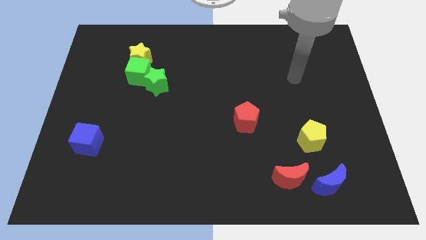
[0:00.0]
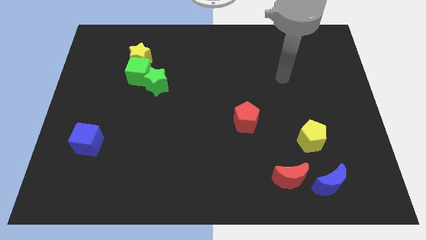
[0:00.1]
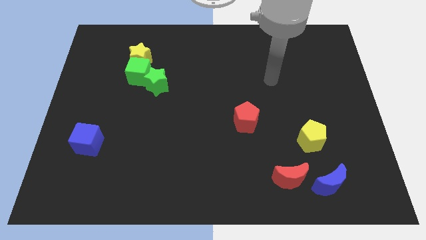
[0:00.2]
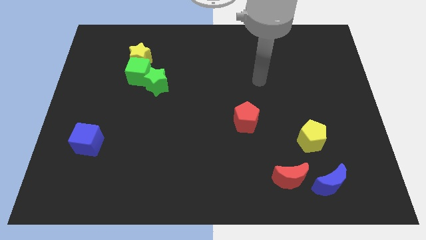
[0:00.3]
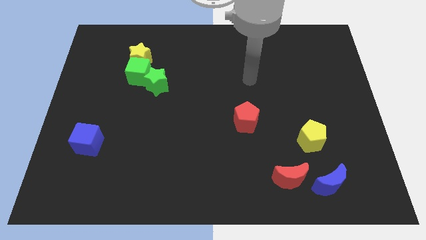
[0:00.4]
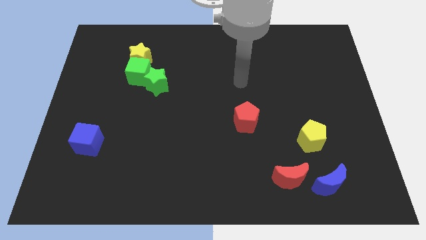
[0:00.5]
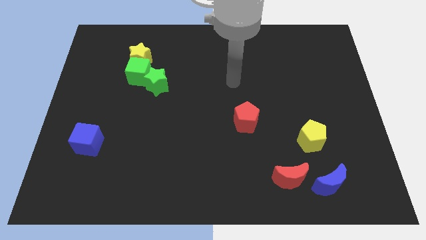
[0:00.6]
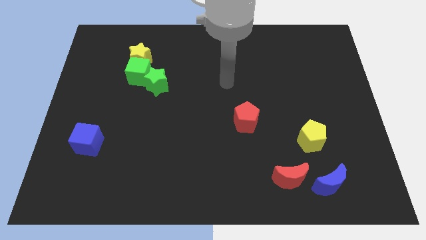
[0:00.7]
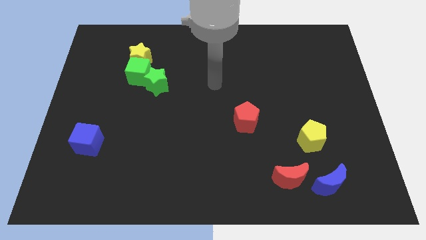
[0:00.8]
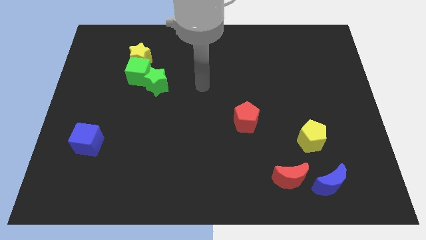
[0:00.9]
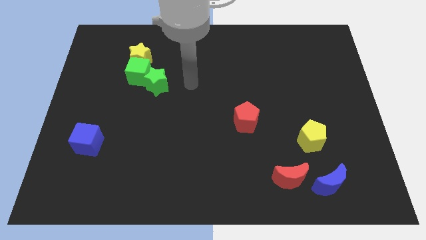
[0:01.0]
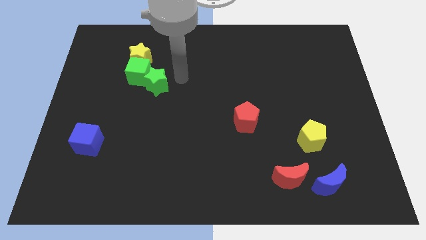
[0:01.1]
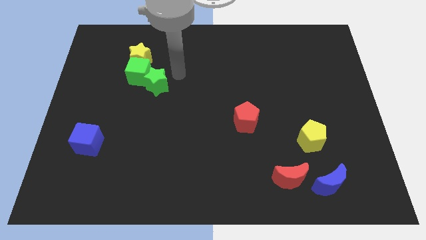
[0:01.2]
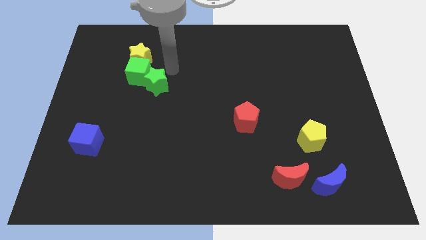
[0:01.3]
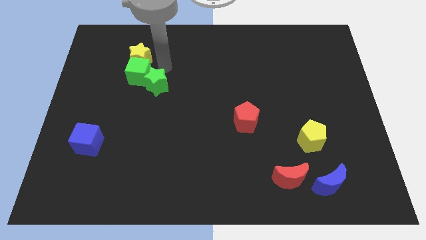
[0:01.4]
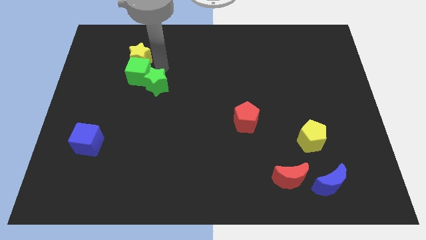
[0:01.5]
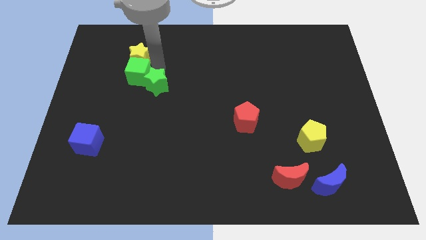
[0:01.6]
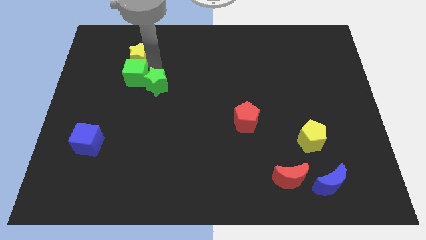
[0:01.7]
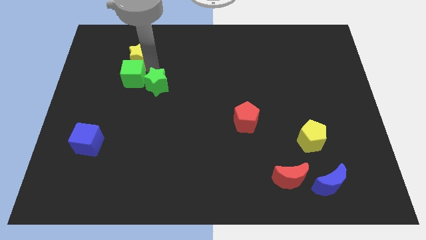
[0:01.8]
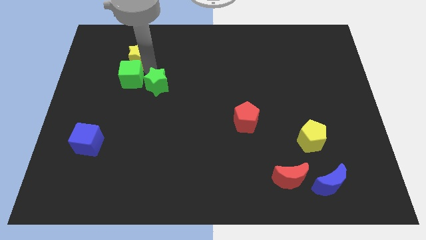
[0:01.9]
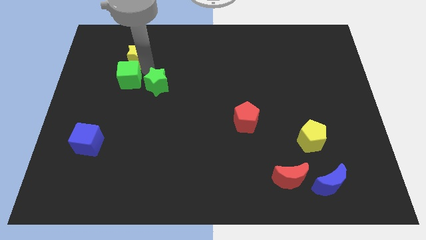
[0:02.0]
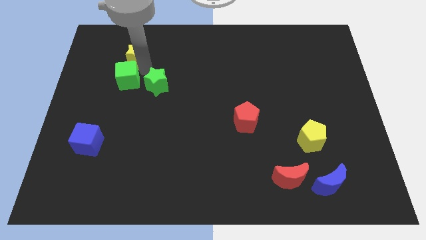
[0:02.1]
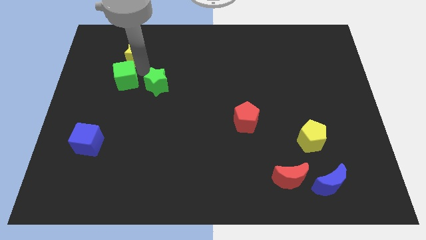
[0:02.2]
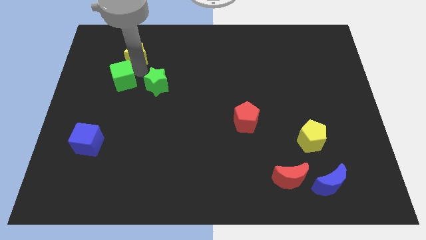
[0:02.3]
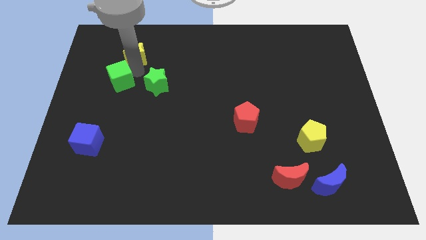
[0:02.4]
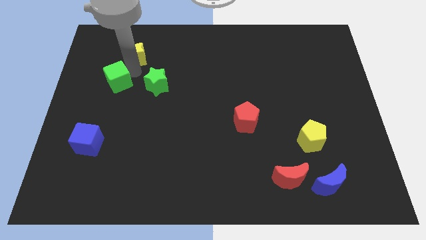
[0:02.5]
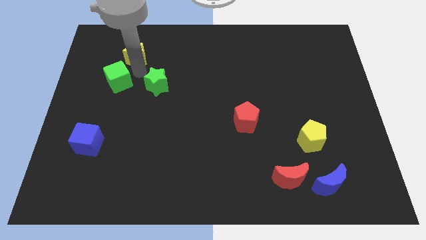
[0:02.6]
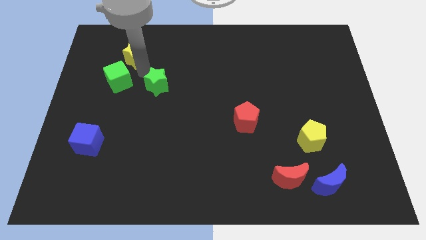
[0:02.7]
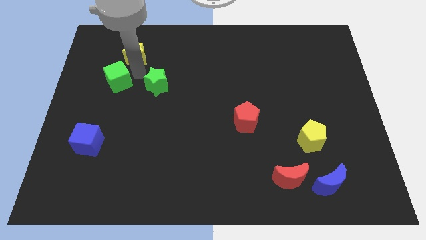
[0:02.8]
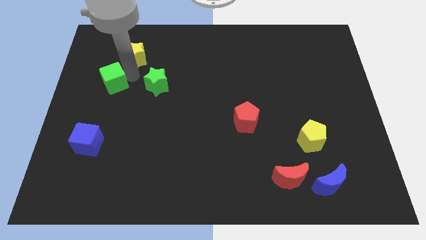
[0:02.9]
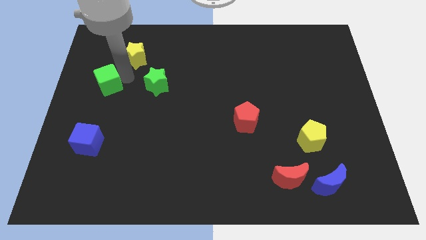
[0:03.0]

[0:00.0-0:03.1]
separate the green cube from the yellow star and green star

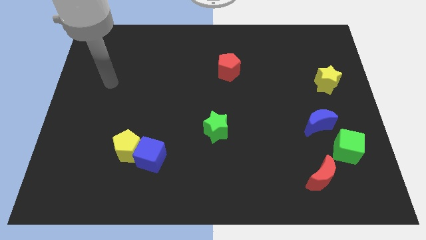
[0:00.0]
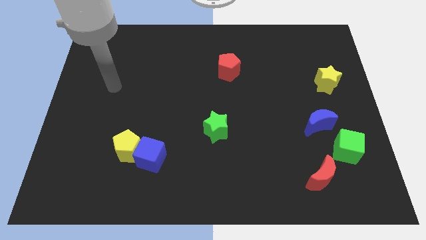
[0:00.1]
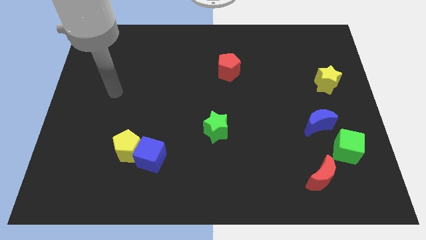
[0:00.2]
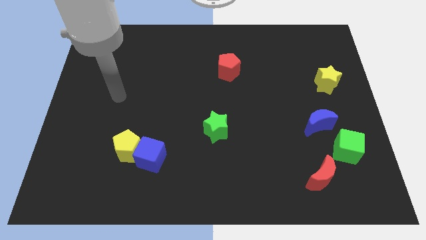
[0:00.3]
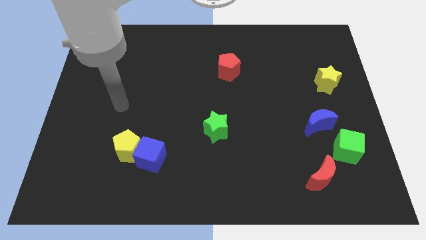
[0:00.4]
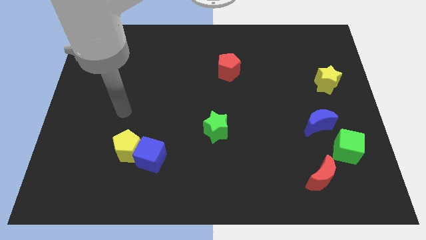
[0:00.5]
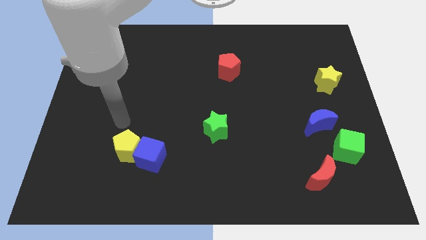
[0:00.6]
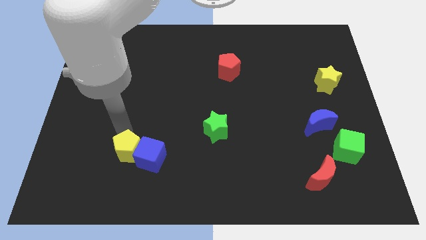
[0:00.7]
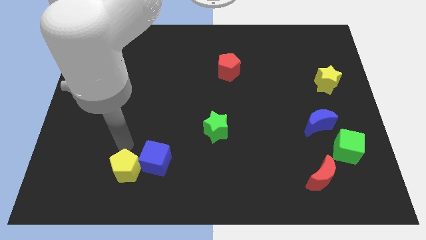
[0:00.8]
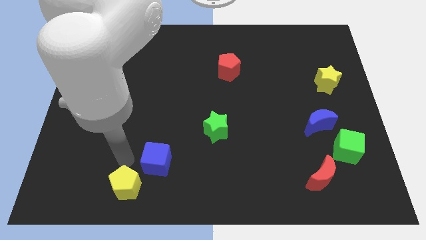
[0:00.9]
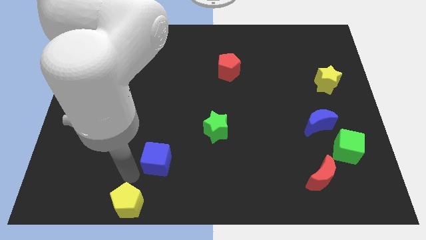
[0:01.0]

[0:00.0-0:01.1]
move the blue cube away from the yellow pentagon

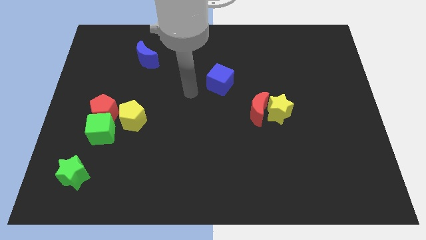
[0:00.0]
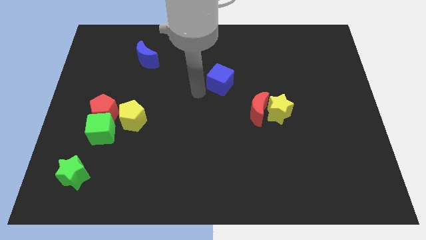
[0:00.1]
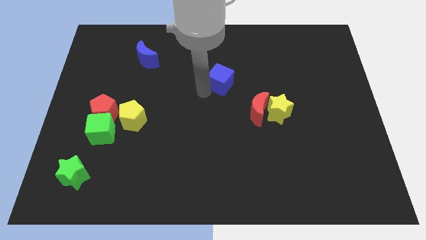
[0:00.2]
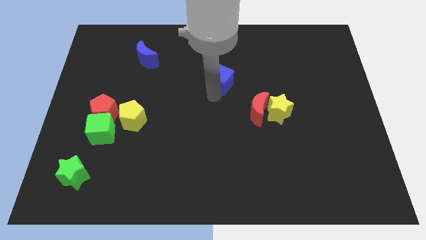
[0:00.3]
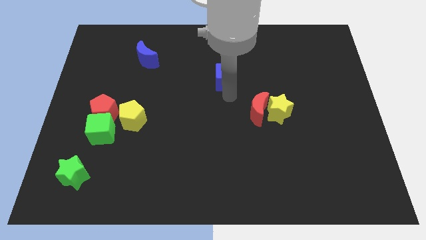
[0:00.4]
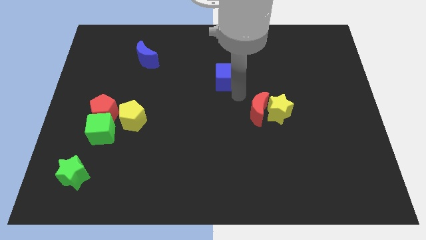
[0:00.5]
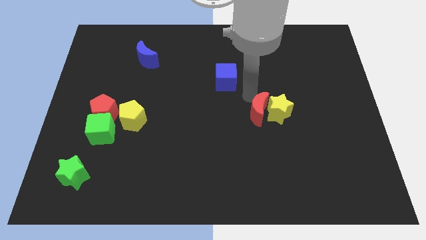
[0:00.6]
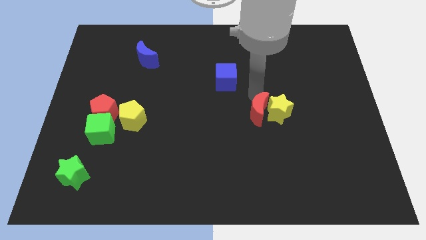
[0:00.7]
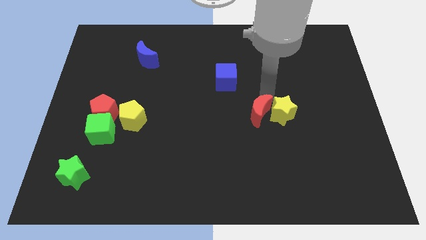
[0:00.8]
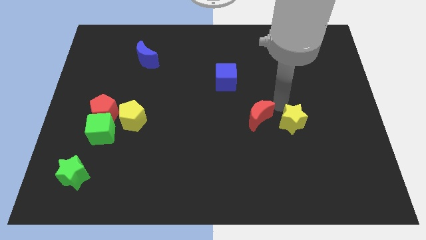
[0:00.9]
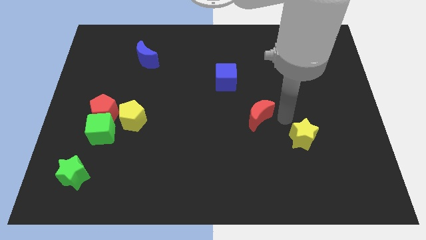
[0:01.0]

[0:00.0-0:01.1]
pull the red moon apart from the yellow star

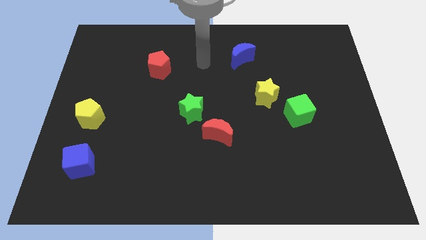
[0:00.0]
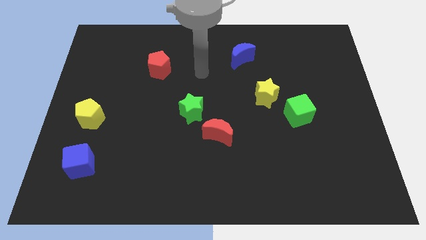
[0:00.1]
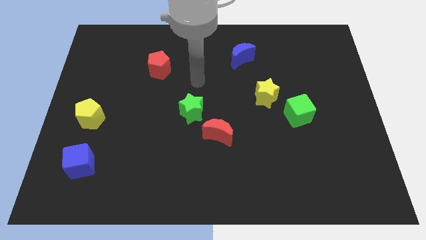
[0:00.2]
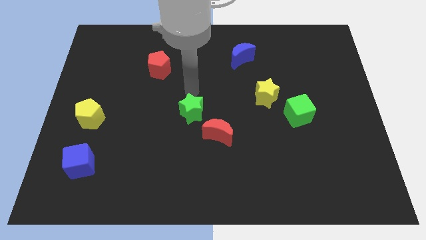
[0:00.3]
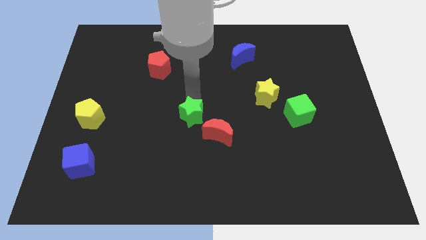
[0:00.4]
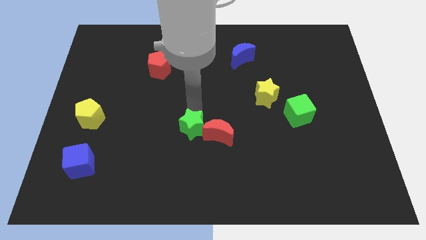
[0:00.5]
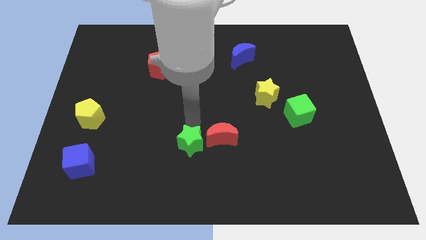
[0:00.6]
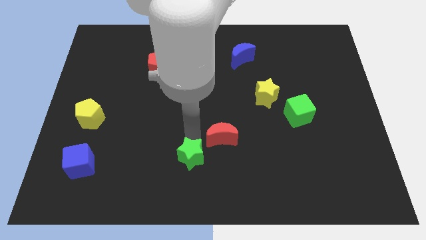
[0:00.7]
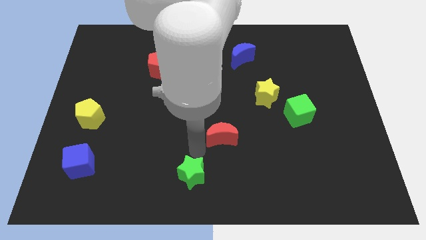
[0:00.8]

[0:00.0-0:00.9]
pull the red moon apart from the green star

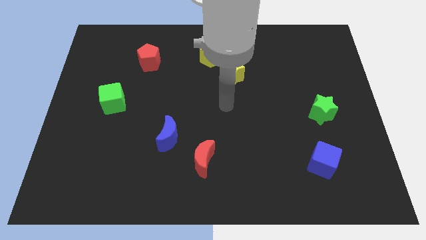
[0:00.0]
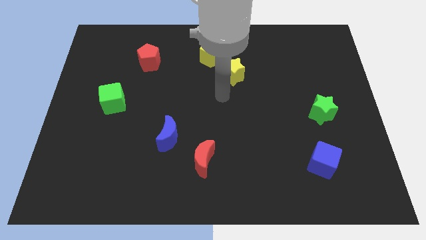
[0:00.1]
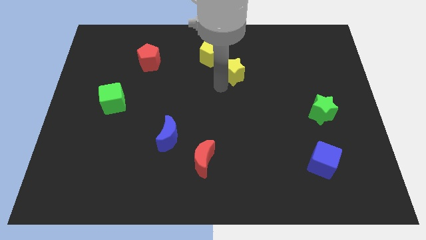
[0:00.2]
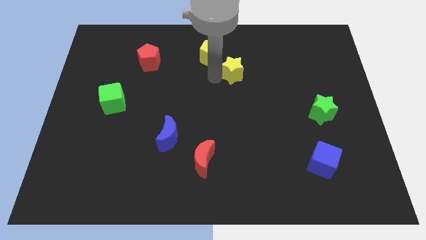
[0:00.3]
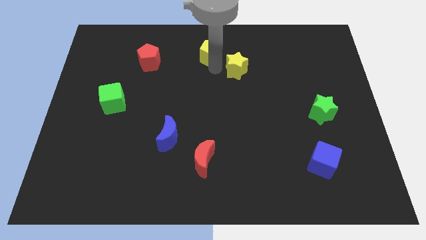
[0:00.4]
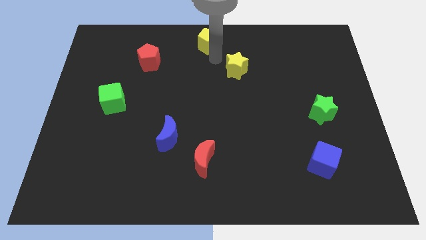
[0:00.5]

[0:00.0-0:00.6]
separate the yellow star from the yellow pentagon

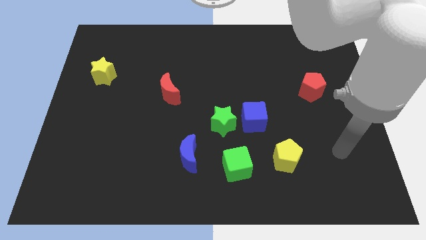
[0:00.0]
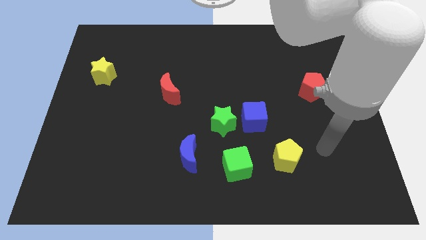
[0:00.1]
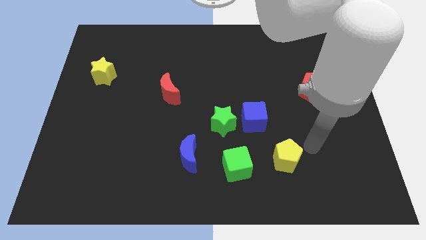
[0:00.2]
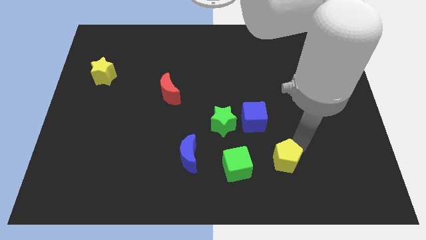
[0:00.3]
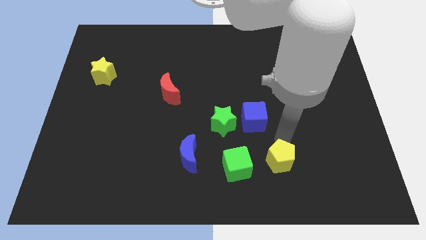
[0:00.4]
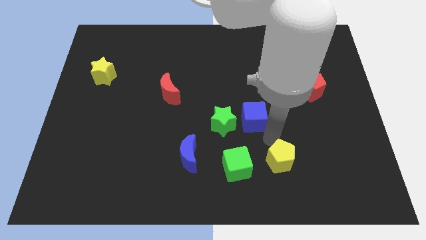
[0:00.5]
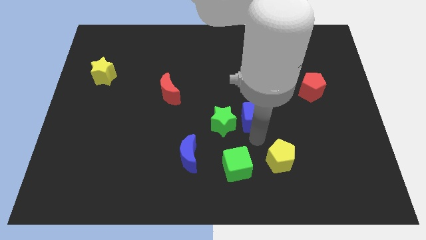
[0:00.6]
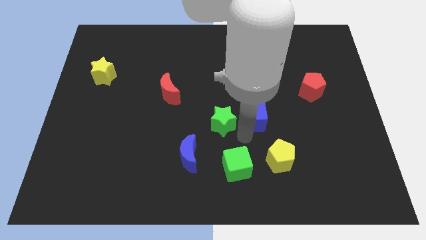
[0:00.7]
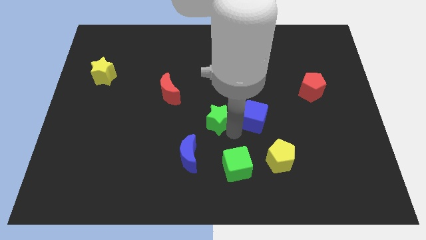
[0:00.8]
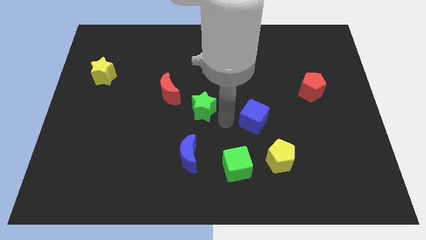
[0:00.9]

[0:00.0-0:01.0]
pull the blue cube apart from the green star

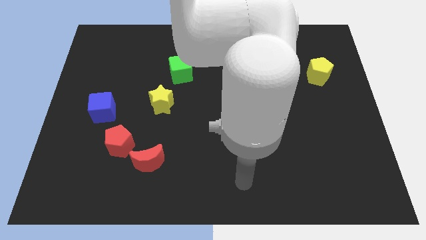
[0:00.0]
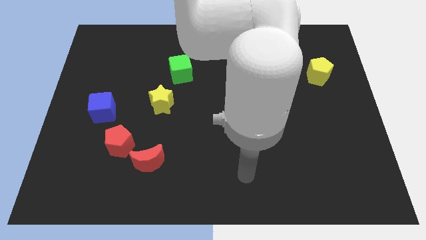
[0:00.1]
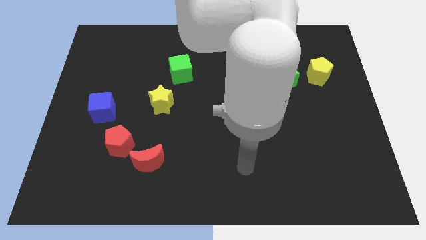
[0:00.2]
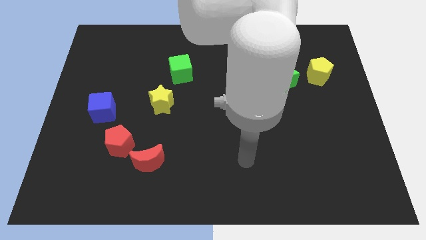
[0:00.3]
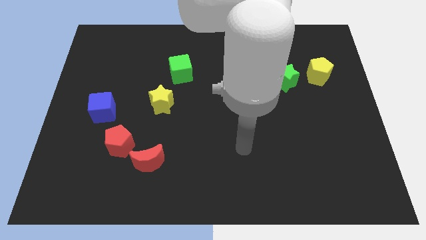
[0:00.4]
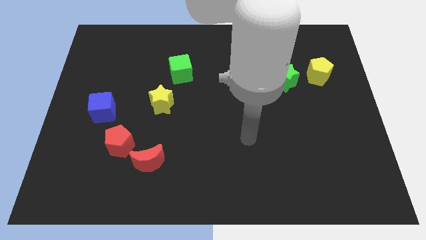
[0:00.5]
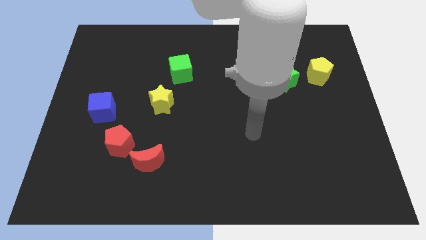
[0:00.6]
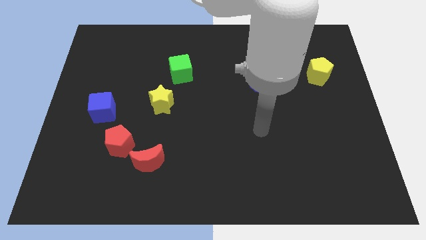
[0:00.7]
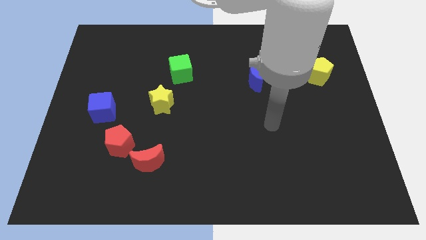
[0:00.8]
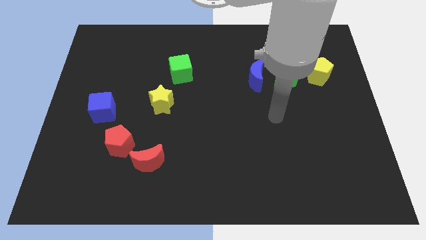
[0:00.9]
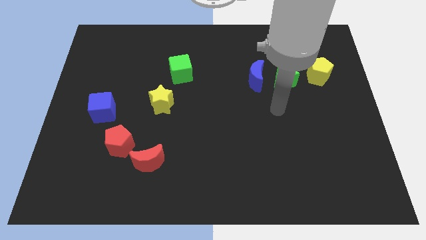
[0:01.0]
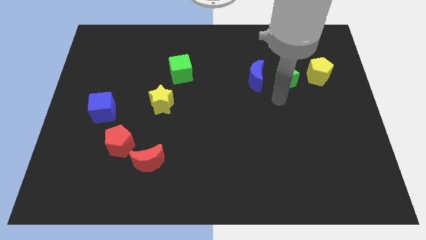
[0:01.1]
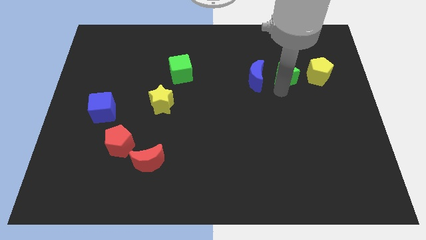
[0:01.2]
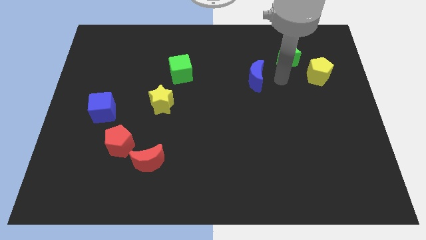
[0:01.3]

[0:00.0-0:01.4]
move the blue moon away from the green star

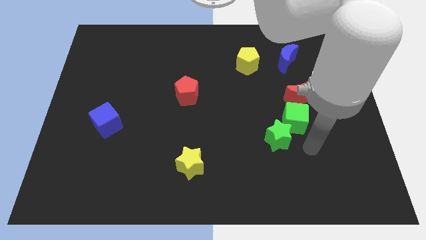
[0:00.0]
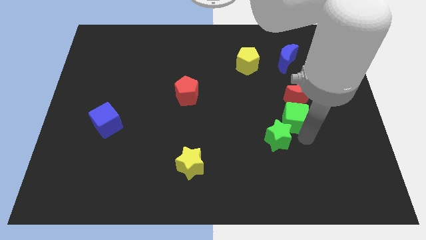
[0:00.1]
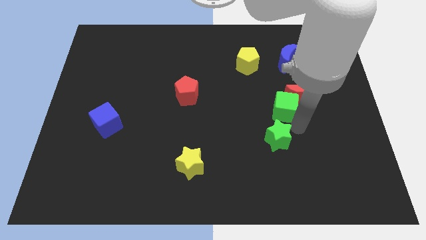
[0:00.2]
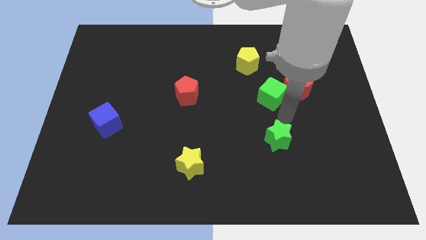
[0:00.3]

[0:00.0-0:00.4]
move the green star away from the green cube
